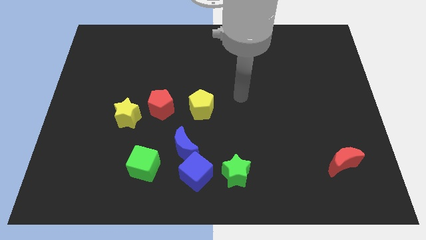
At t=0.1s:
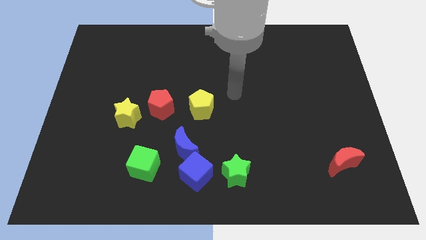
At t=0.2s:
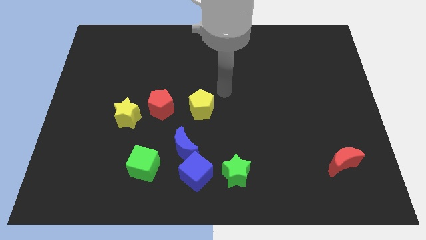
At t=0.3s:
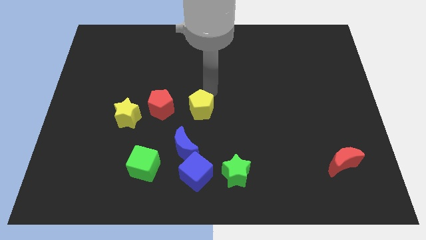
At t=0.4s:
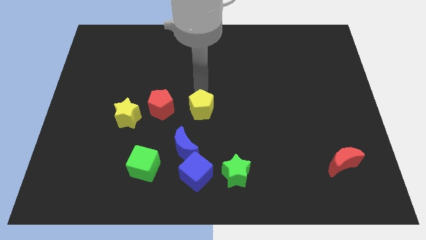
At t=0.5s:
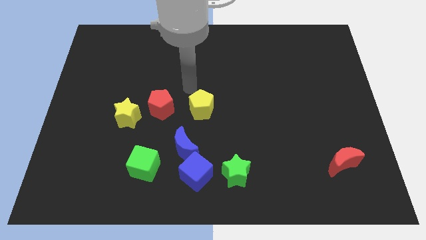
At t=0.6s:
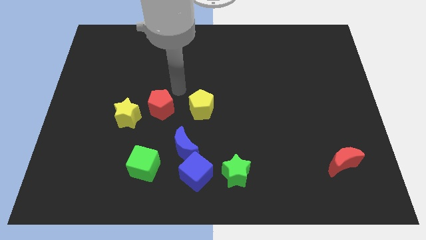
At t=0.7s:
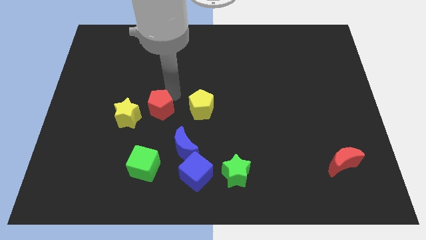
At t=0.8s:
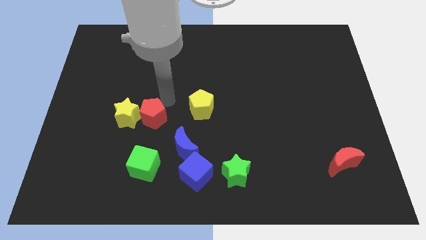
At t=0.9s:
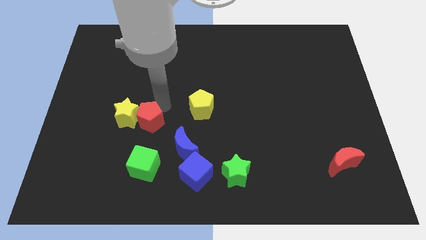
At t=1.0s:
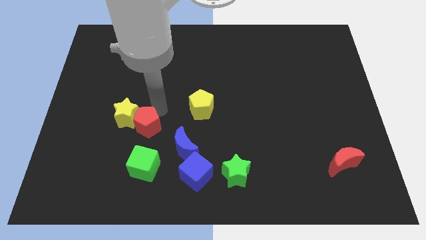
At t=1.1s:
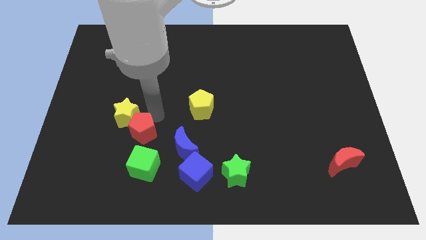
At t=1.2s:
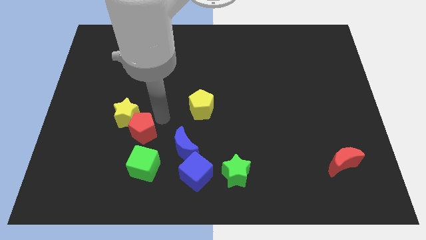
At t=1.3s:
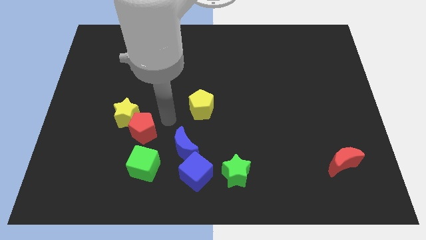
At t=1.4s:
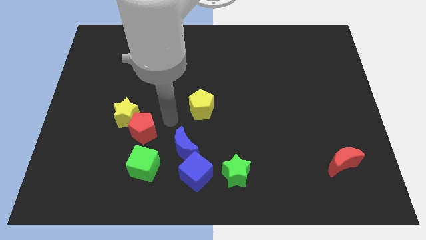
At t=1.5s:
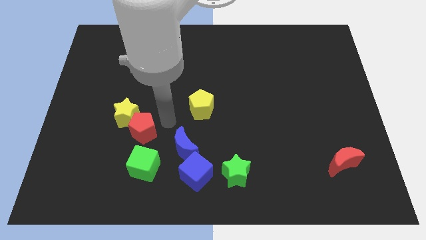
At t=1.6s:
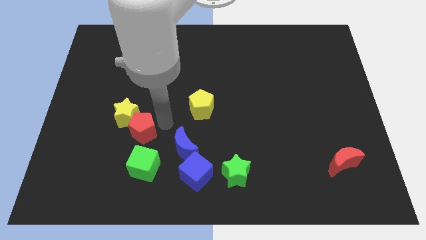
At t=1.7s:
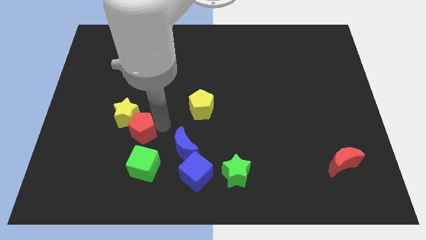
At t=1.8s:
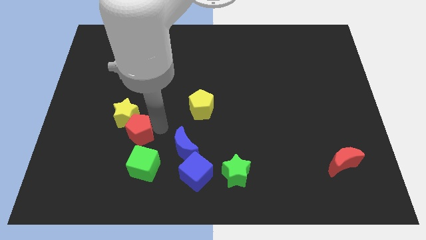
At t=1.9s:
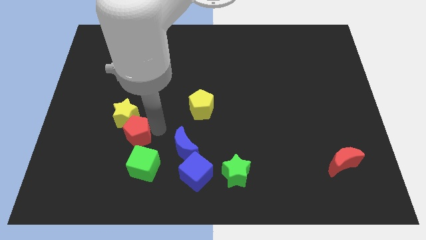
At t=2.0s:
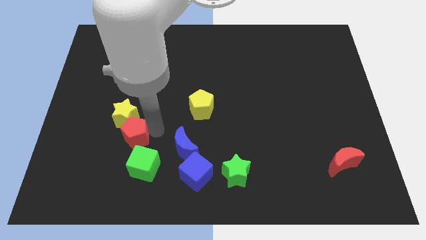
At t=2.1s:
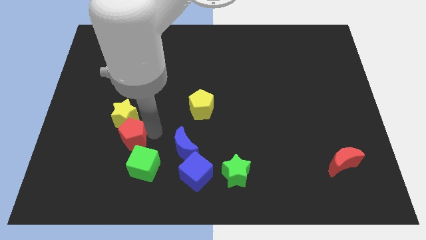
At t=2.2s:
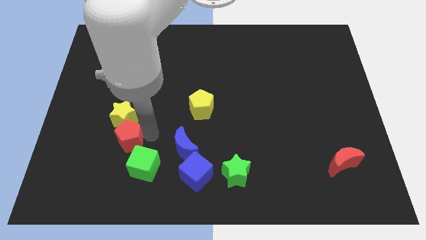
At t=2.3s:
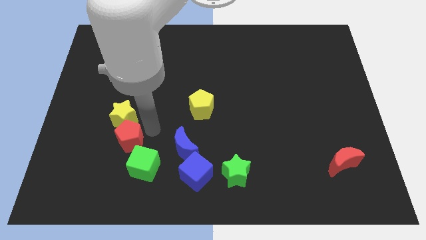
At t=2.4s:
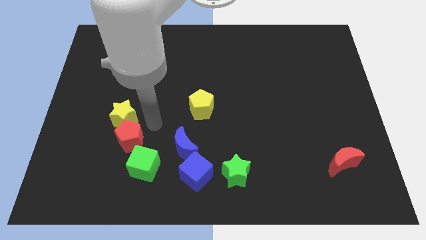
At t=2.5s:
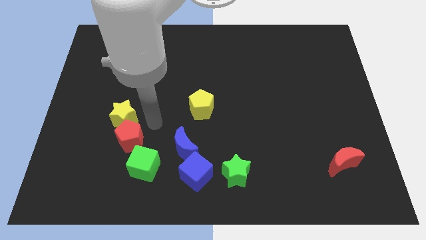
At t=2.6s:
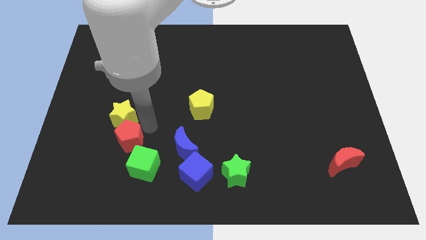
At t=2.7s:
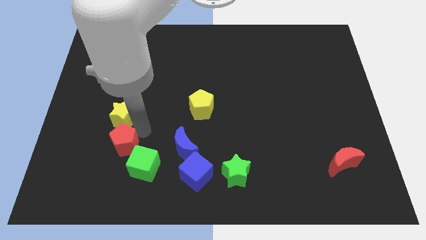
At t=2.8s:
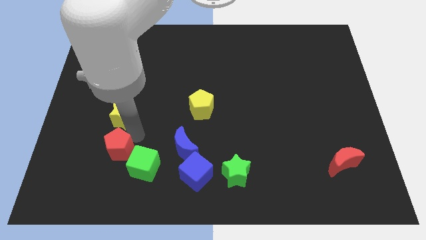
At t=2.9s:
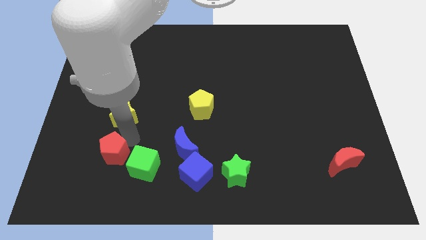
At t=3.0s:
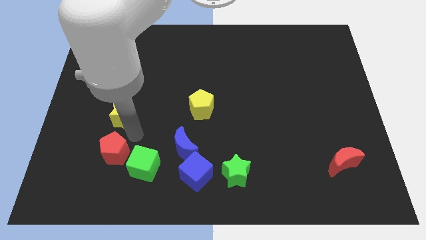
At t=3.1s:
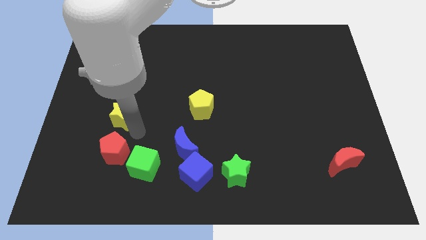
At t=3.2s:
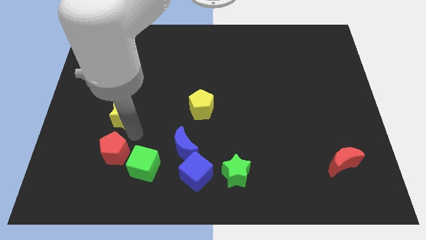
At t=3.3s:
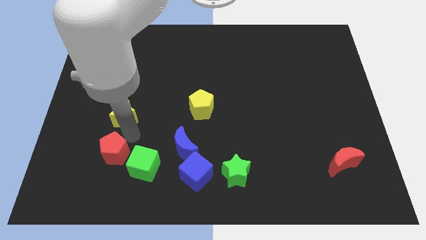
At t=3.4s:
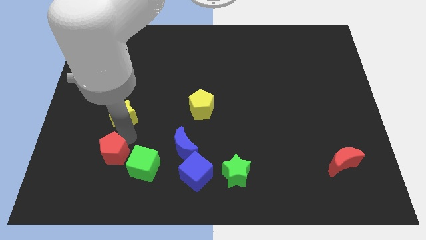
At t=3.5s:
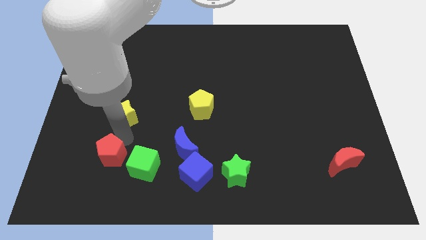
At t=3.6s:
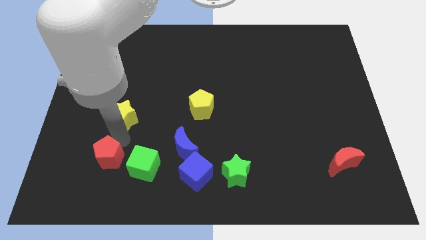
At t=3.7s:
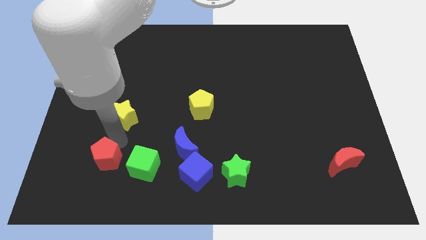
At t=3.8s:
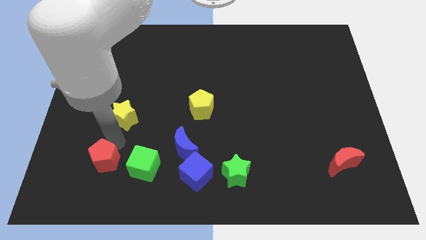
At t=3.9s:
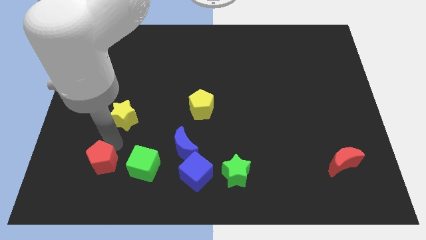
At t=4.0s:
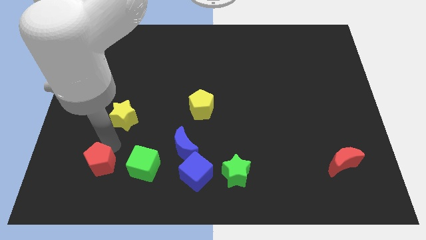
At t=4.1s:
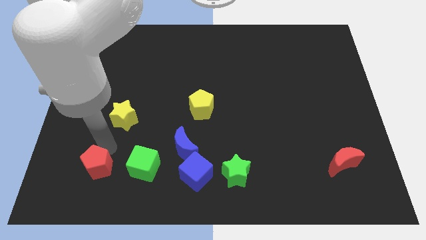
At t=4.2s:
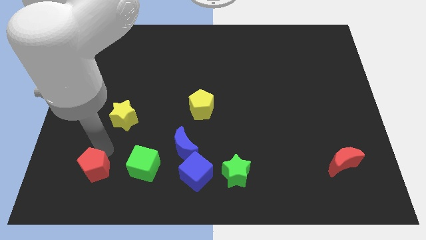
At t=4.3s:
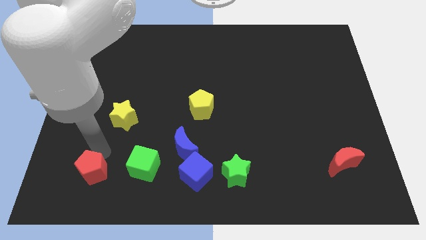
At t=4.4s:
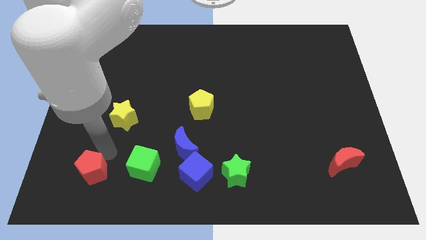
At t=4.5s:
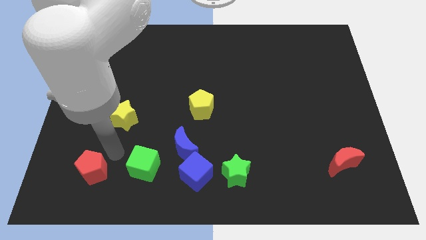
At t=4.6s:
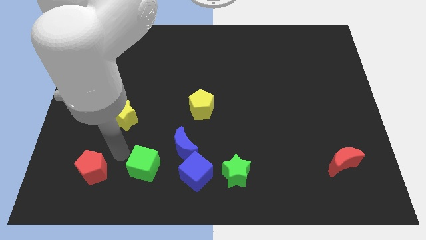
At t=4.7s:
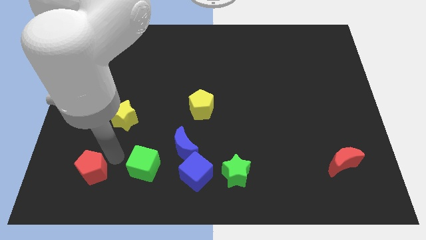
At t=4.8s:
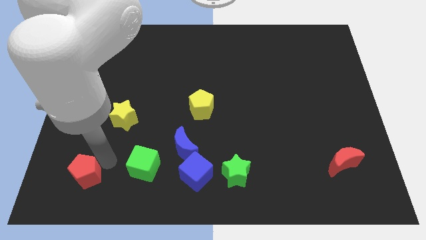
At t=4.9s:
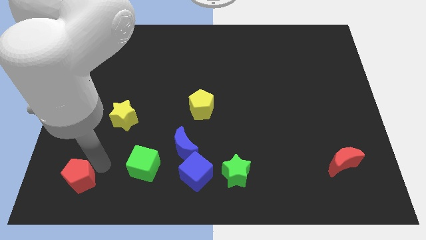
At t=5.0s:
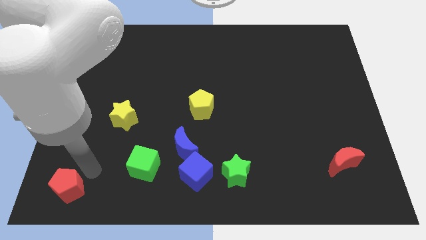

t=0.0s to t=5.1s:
push the red pentagon to the lower left corner

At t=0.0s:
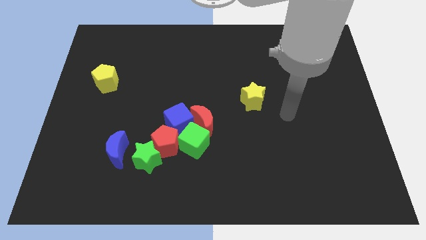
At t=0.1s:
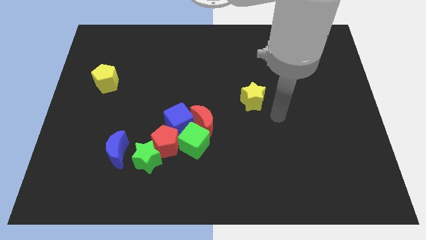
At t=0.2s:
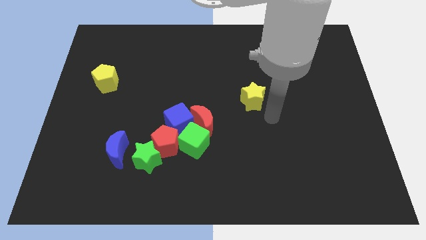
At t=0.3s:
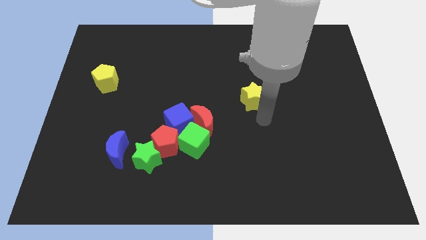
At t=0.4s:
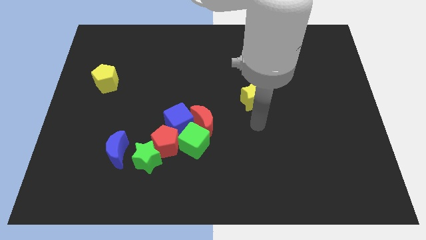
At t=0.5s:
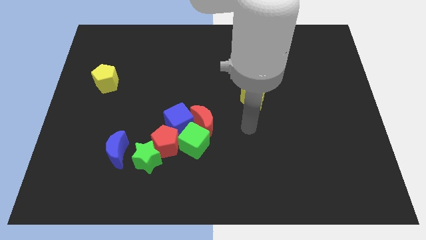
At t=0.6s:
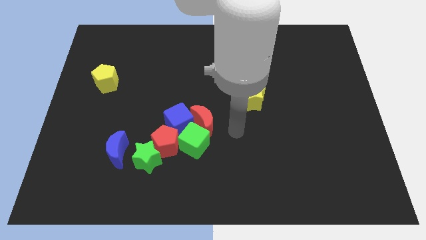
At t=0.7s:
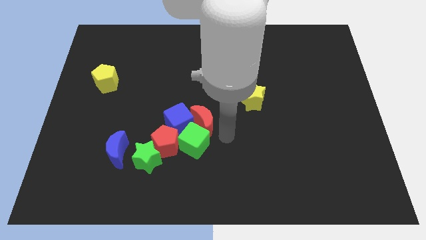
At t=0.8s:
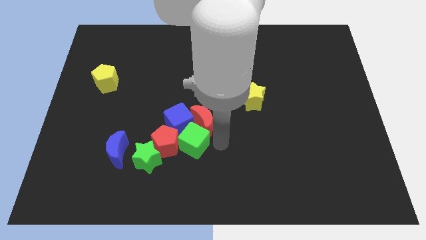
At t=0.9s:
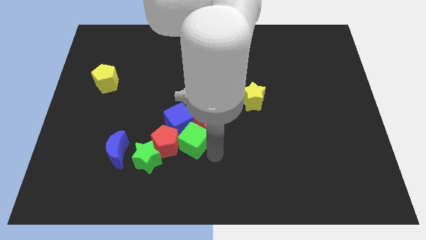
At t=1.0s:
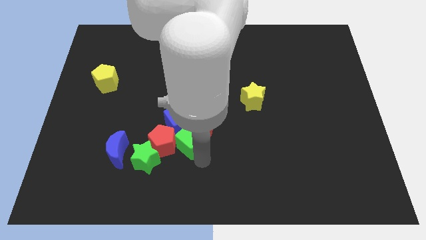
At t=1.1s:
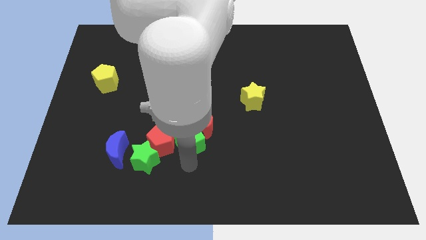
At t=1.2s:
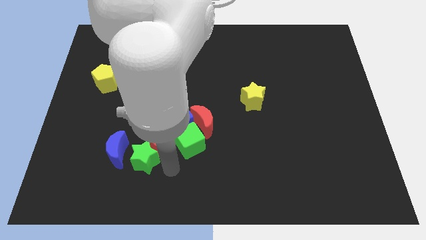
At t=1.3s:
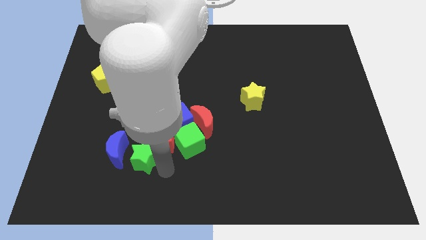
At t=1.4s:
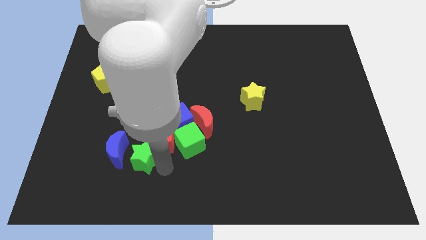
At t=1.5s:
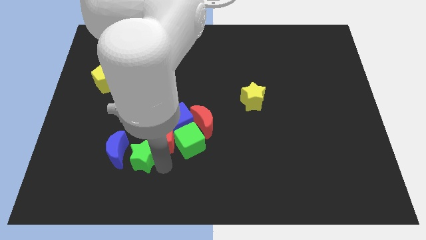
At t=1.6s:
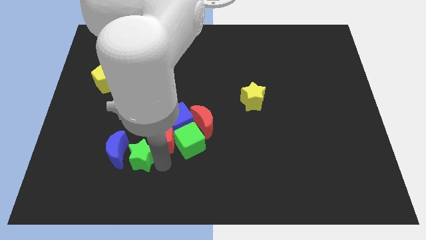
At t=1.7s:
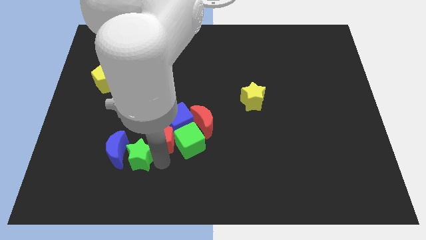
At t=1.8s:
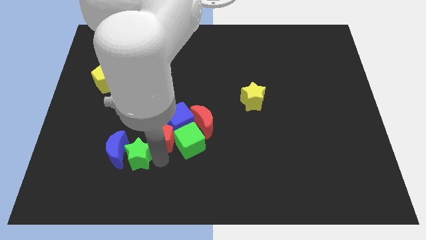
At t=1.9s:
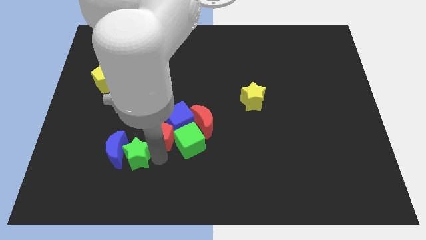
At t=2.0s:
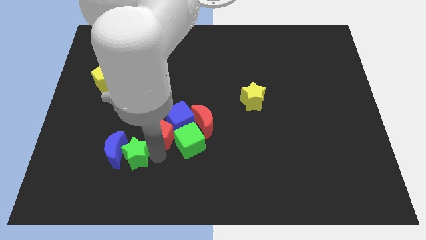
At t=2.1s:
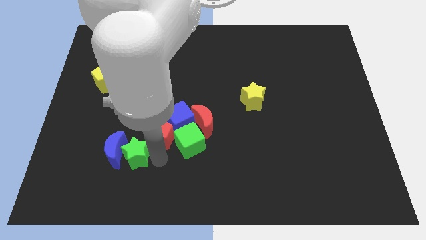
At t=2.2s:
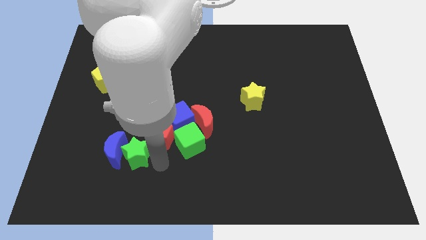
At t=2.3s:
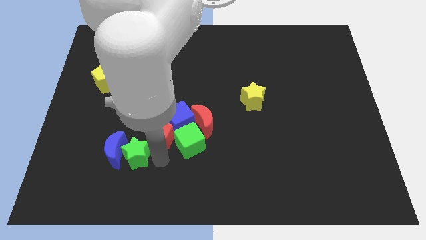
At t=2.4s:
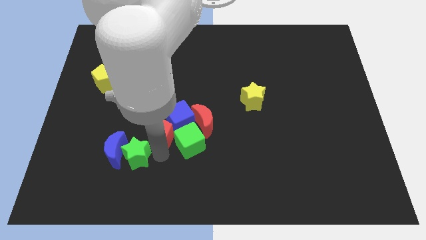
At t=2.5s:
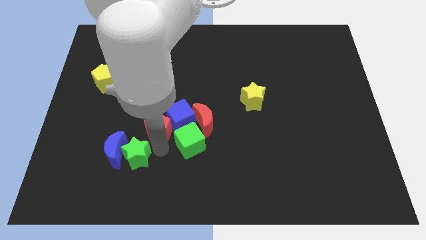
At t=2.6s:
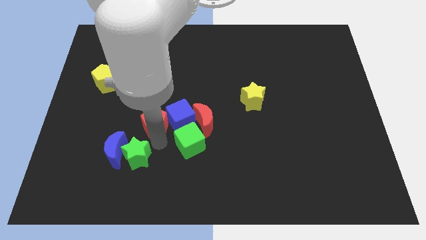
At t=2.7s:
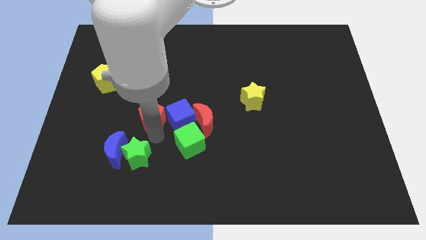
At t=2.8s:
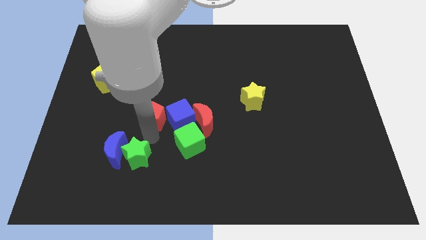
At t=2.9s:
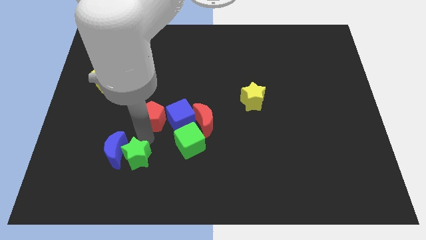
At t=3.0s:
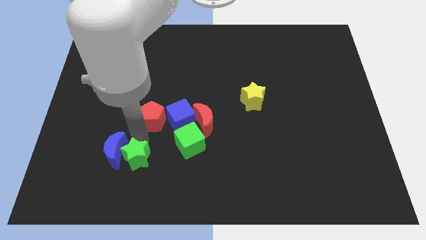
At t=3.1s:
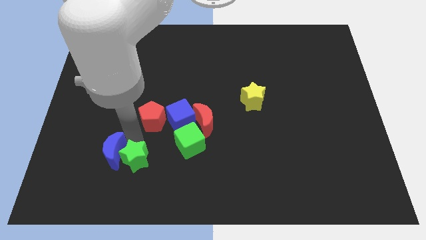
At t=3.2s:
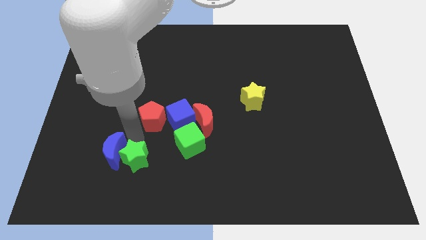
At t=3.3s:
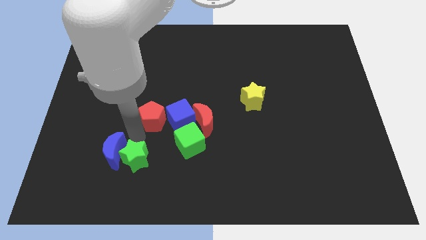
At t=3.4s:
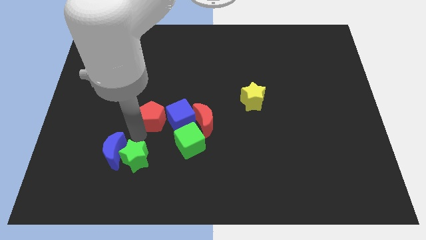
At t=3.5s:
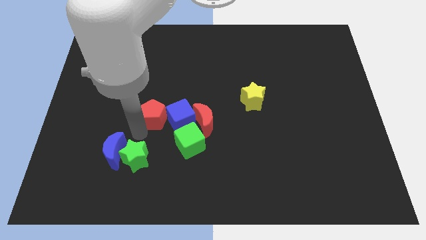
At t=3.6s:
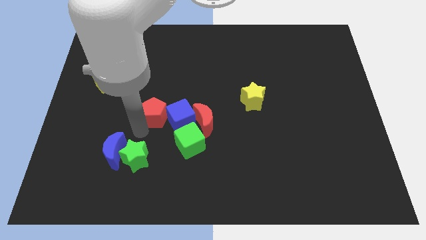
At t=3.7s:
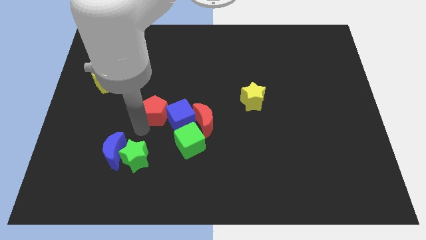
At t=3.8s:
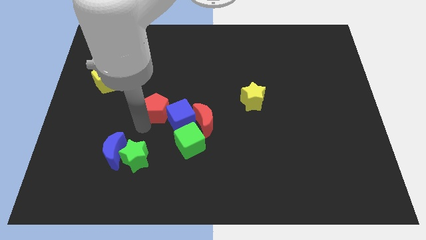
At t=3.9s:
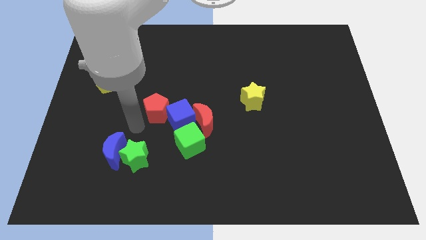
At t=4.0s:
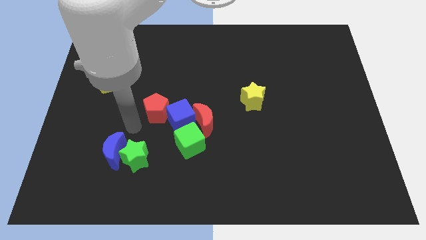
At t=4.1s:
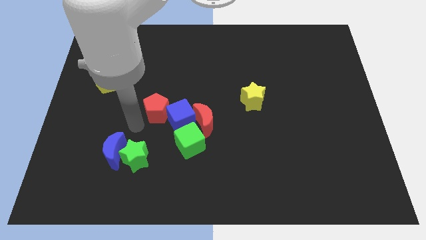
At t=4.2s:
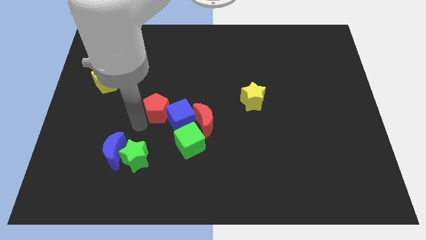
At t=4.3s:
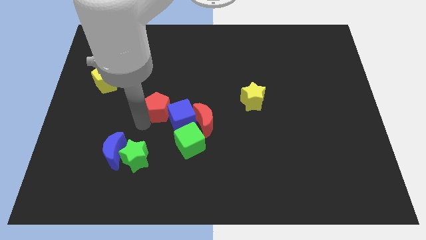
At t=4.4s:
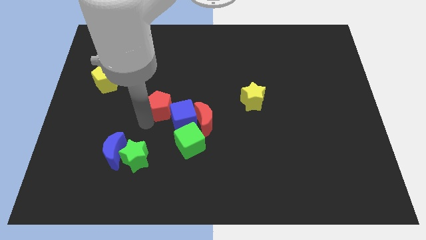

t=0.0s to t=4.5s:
put the red pentagon to the middle of the board
